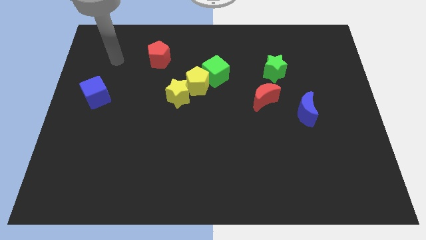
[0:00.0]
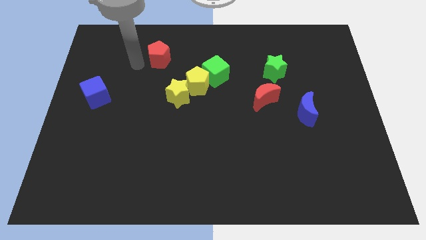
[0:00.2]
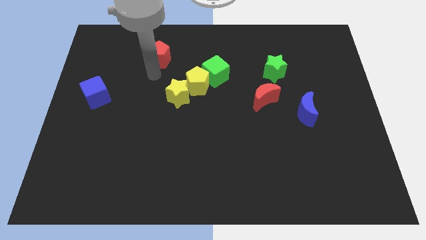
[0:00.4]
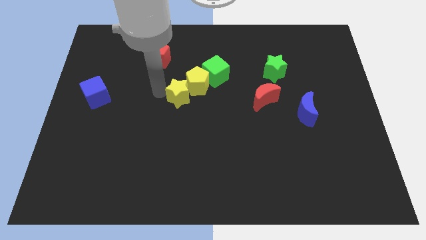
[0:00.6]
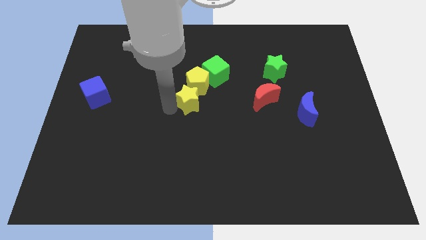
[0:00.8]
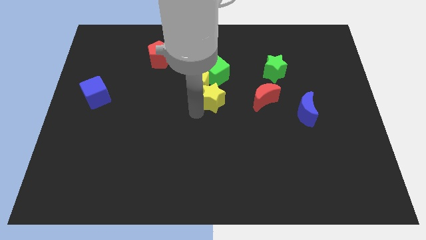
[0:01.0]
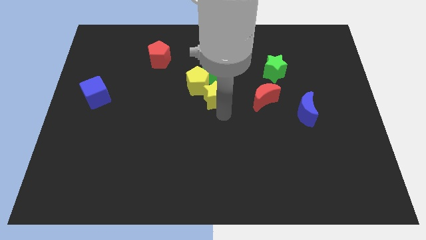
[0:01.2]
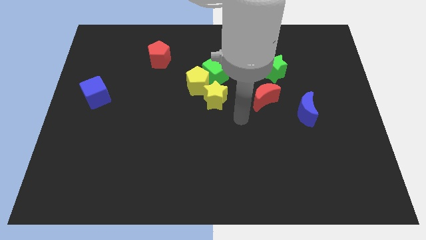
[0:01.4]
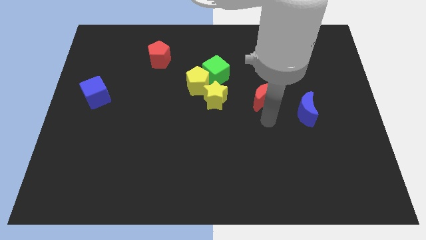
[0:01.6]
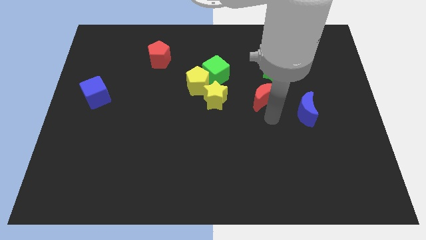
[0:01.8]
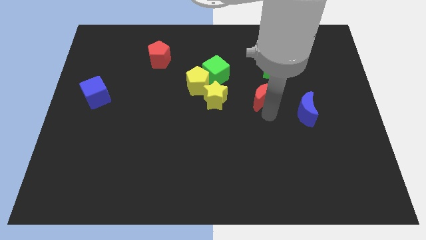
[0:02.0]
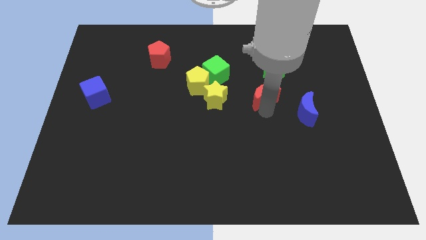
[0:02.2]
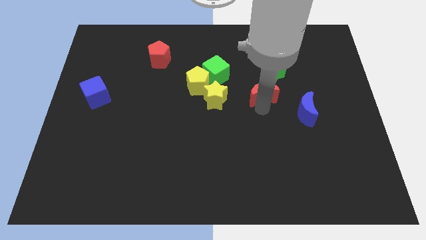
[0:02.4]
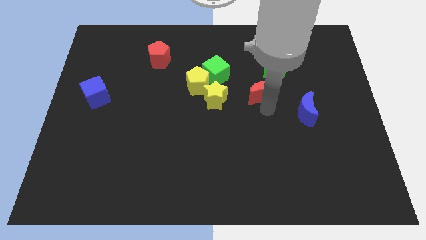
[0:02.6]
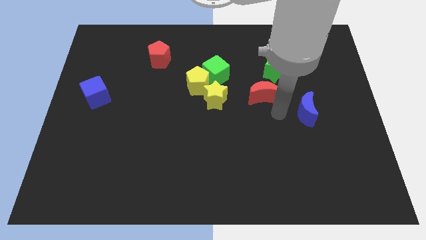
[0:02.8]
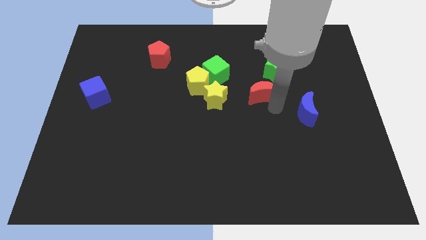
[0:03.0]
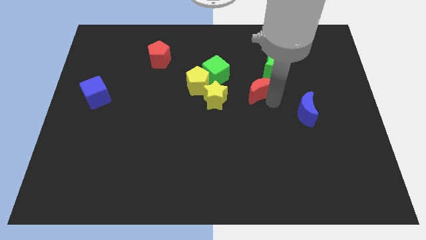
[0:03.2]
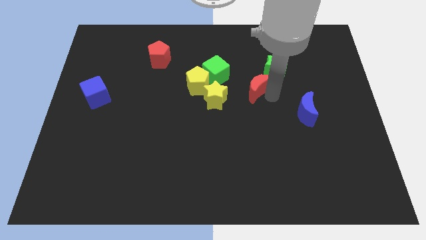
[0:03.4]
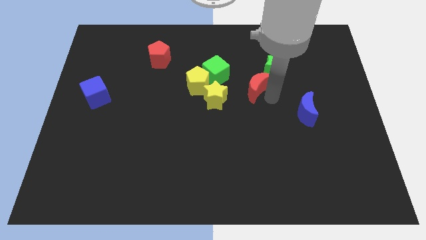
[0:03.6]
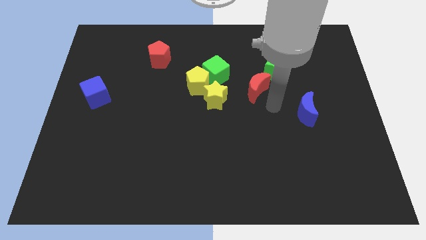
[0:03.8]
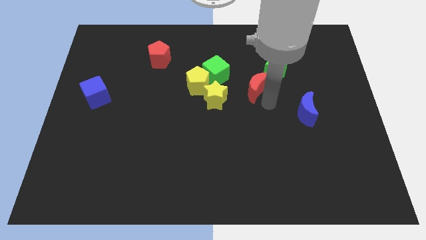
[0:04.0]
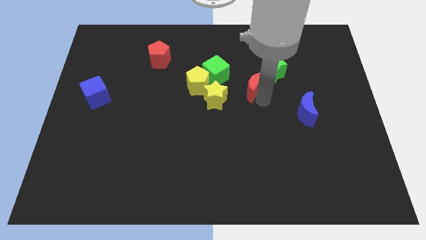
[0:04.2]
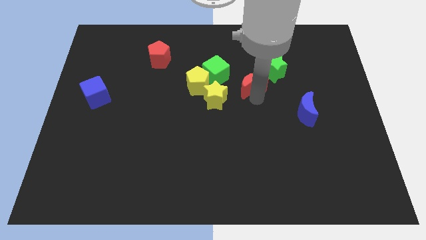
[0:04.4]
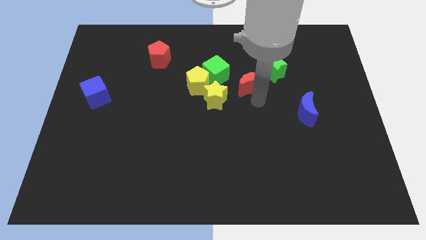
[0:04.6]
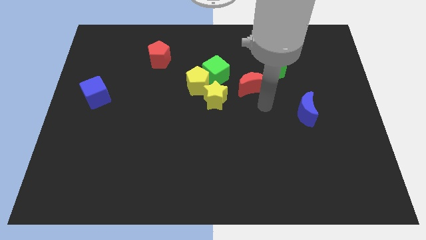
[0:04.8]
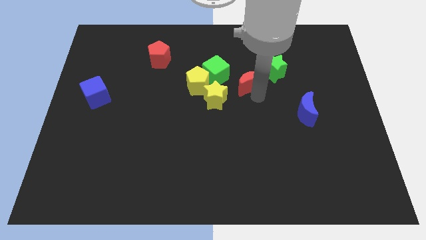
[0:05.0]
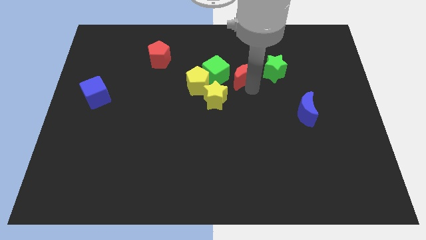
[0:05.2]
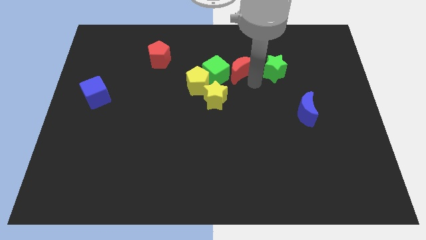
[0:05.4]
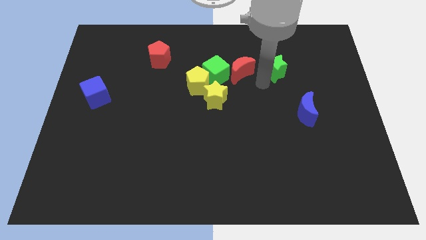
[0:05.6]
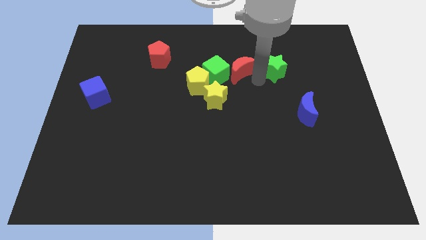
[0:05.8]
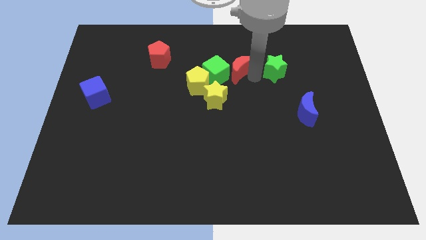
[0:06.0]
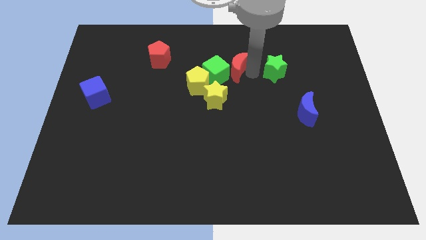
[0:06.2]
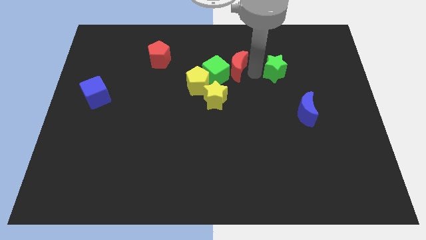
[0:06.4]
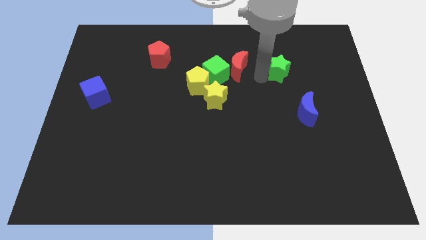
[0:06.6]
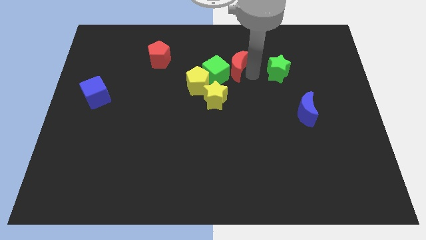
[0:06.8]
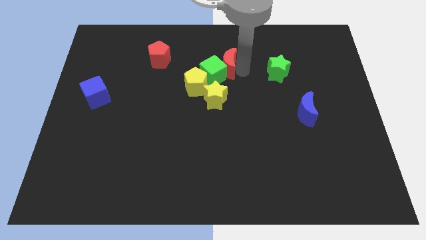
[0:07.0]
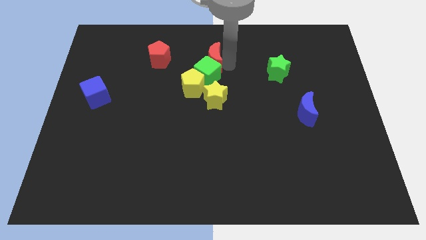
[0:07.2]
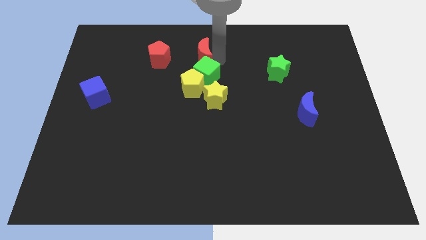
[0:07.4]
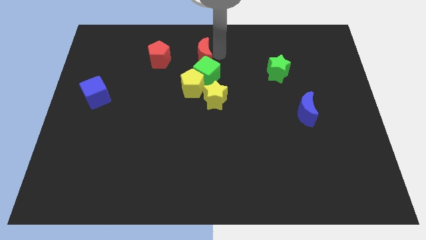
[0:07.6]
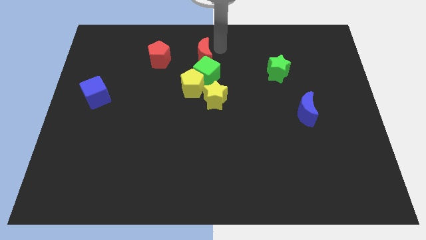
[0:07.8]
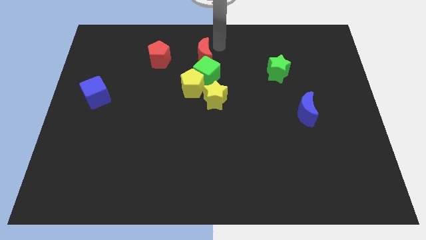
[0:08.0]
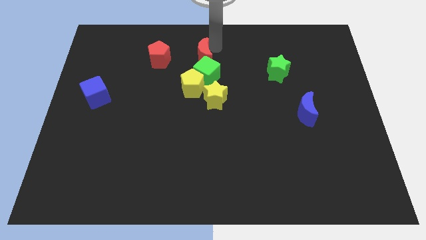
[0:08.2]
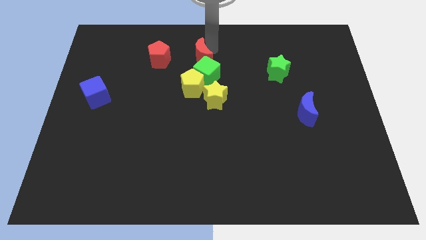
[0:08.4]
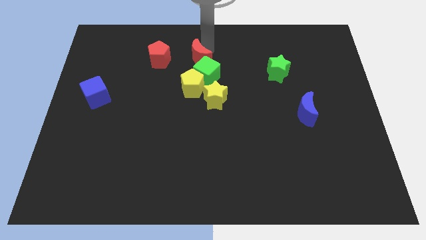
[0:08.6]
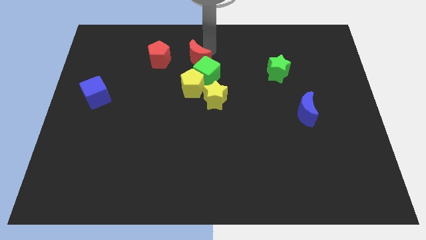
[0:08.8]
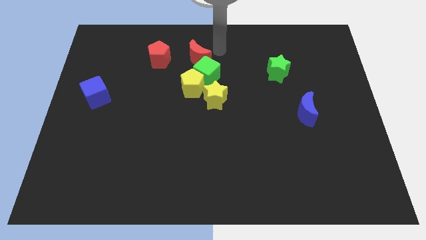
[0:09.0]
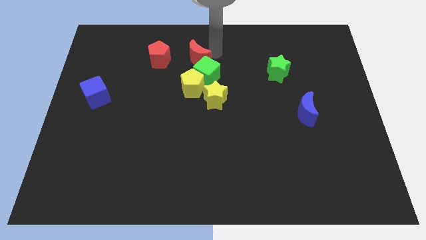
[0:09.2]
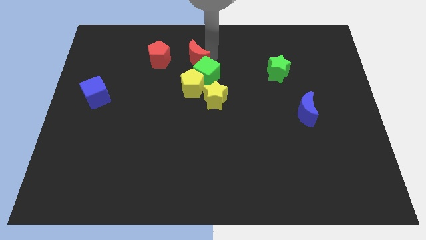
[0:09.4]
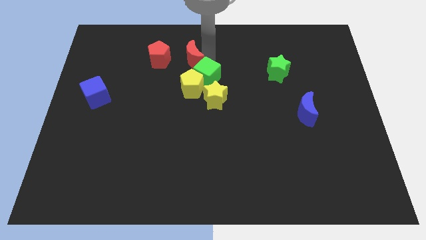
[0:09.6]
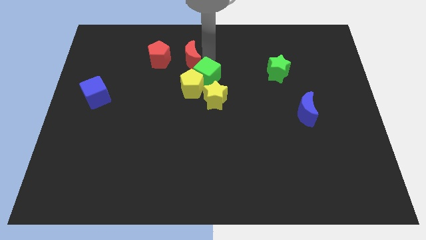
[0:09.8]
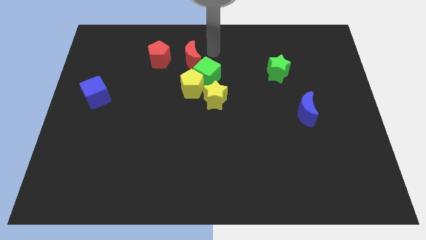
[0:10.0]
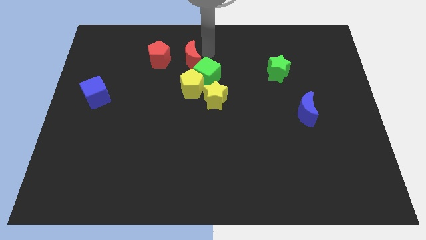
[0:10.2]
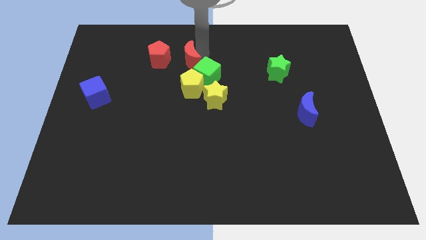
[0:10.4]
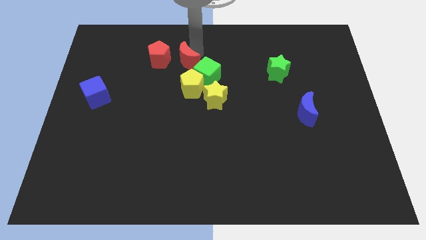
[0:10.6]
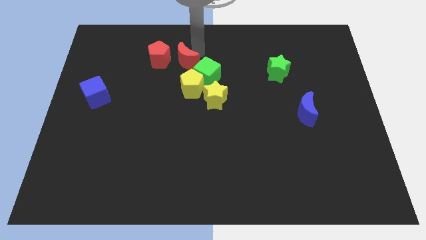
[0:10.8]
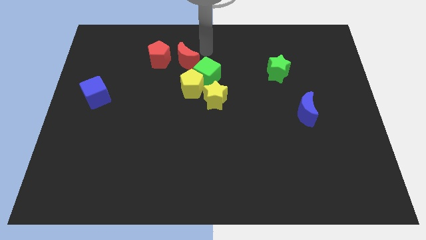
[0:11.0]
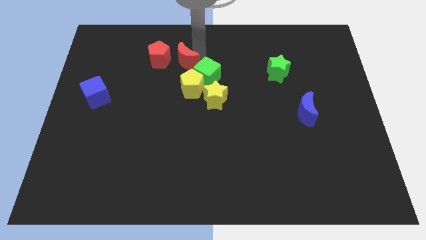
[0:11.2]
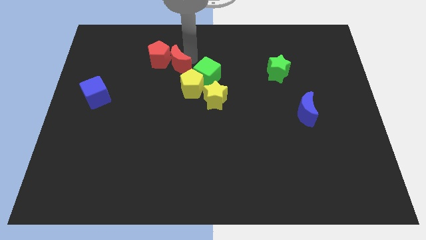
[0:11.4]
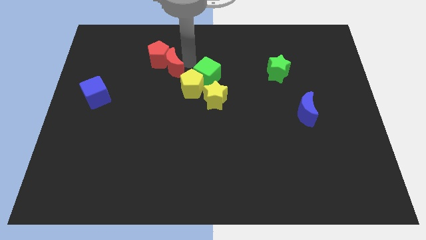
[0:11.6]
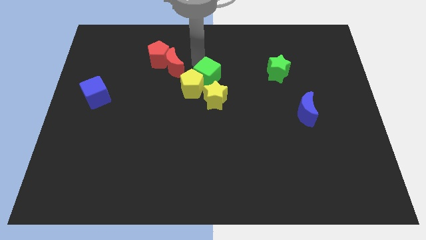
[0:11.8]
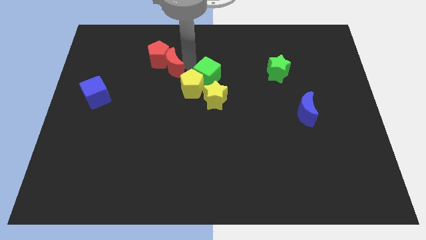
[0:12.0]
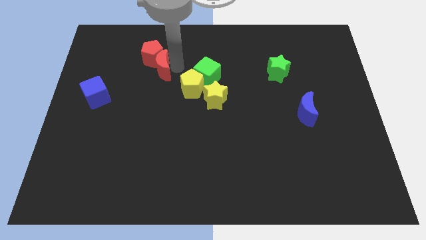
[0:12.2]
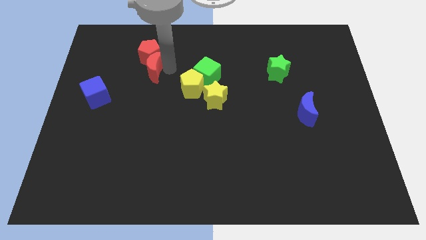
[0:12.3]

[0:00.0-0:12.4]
put the red moon to the bottom left of the red pentagon
